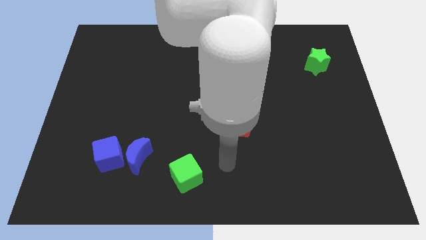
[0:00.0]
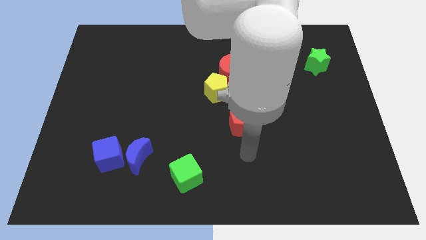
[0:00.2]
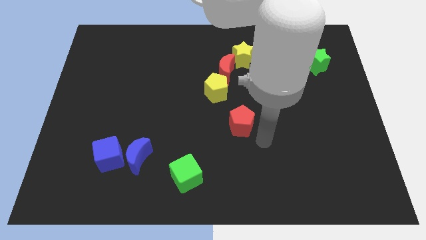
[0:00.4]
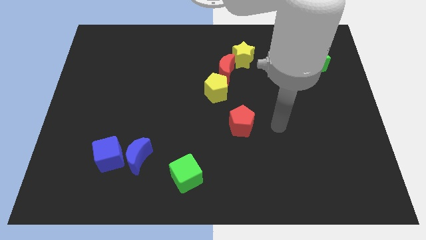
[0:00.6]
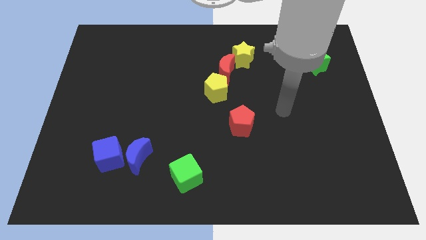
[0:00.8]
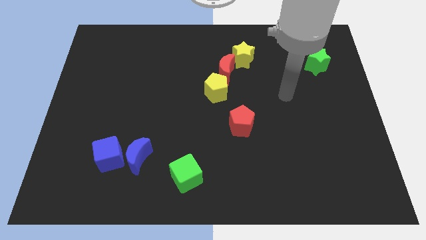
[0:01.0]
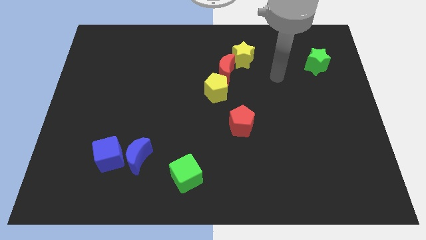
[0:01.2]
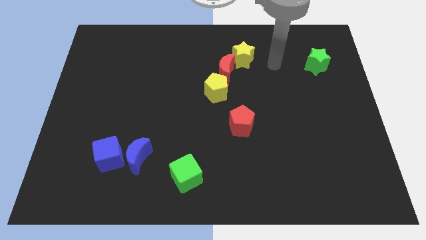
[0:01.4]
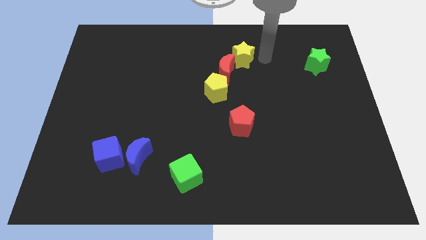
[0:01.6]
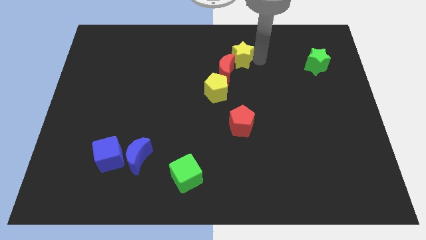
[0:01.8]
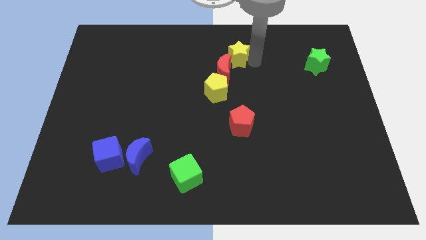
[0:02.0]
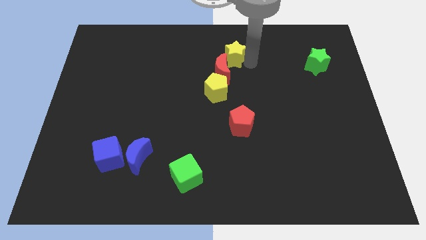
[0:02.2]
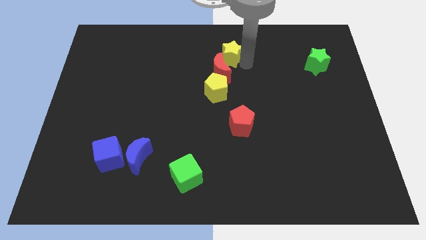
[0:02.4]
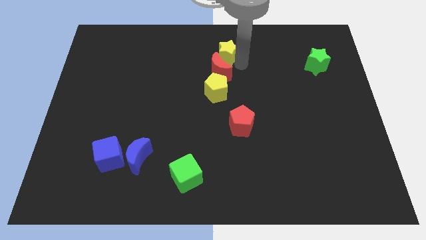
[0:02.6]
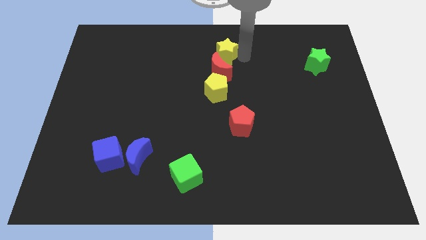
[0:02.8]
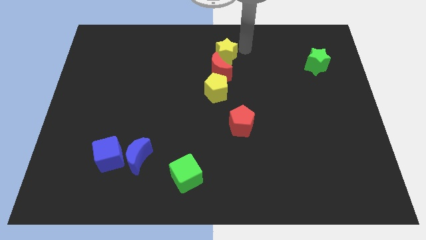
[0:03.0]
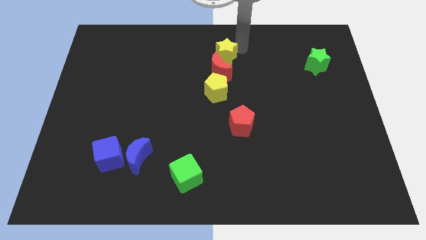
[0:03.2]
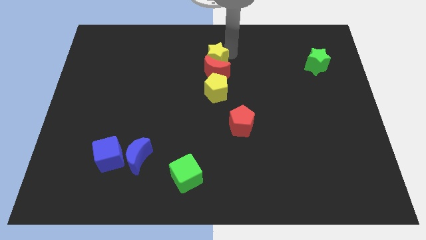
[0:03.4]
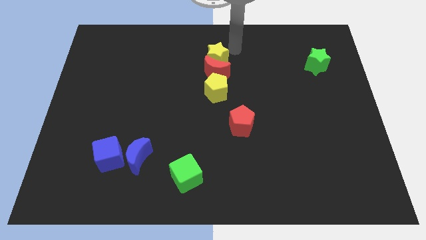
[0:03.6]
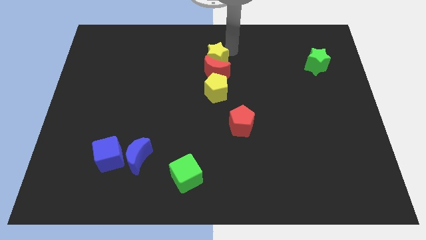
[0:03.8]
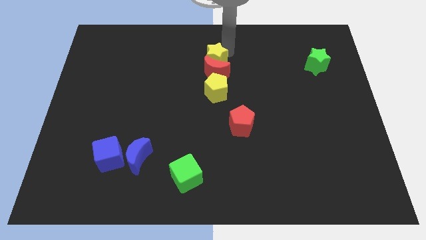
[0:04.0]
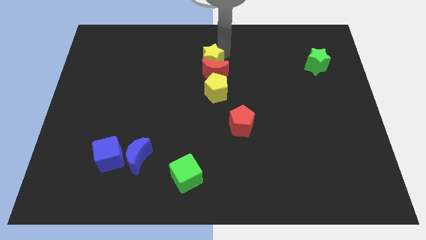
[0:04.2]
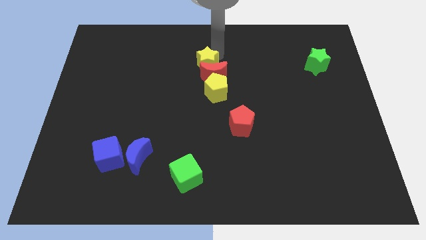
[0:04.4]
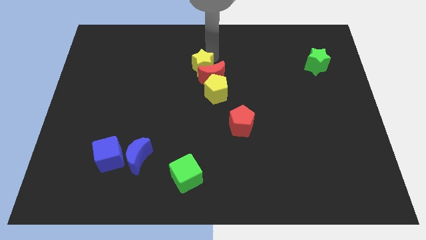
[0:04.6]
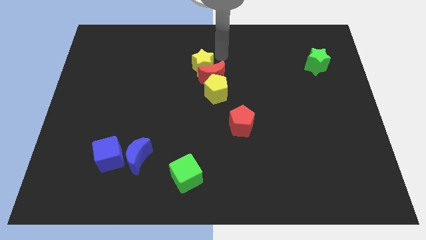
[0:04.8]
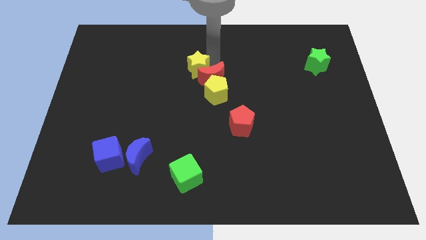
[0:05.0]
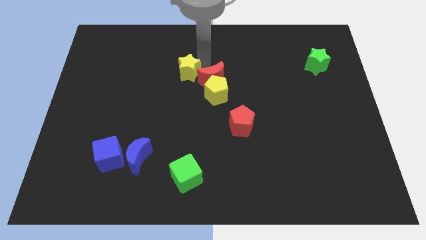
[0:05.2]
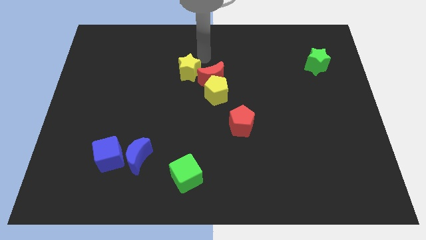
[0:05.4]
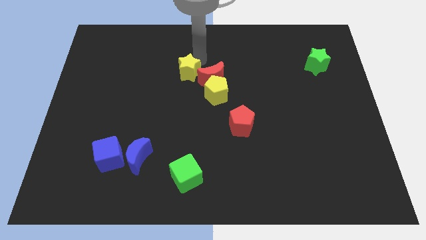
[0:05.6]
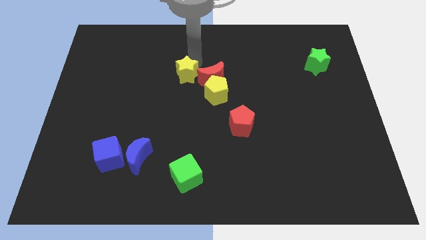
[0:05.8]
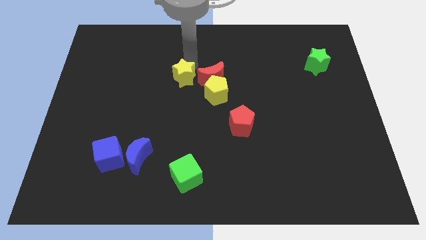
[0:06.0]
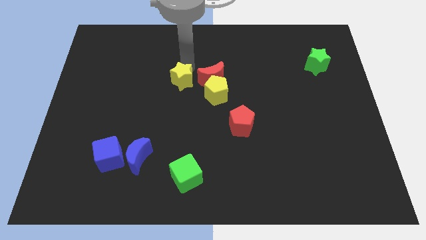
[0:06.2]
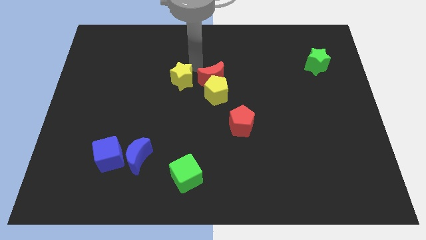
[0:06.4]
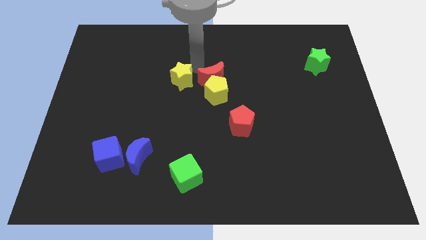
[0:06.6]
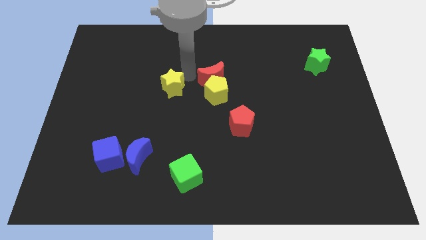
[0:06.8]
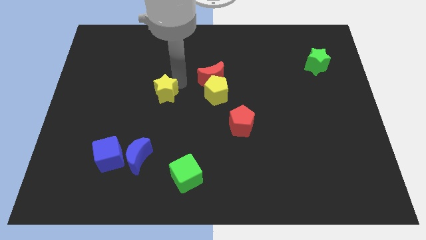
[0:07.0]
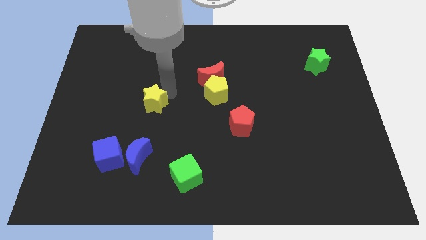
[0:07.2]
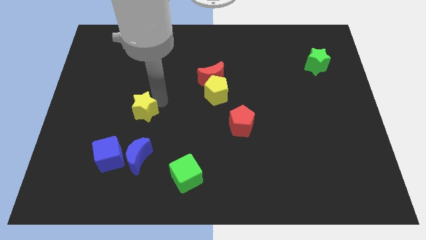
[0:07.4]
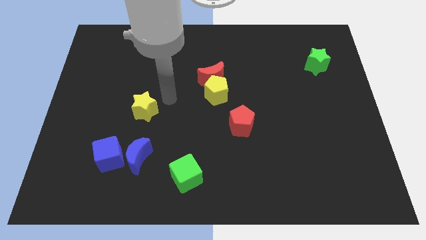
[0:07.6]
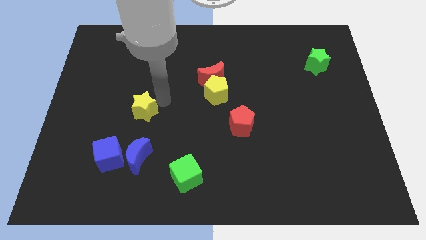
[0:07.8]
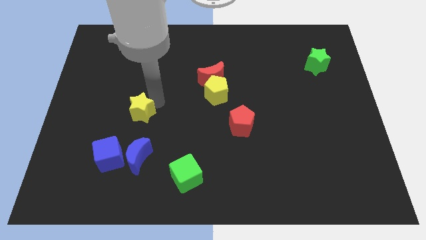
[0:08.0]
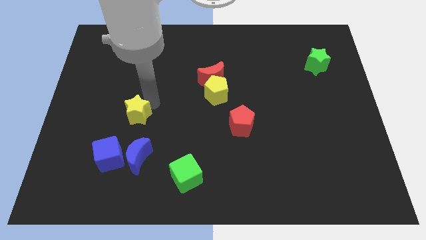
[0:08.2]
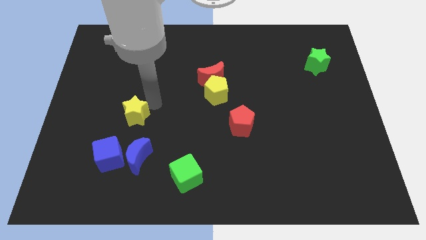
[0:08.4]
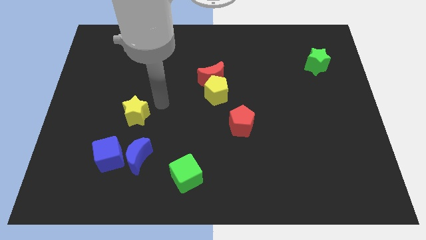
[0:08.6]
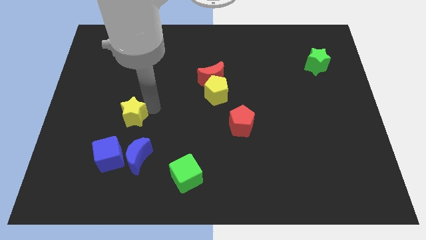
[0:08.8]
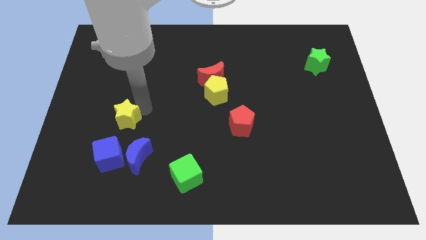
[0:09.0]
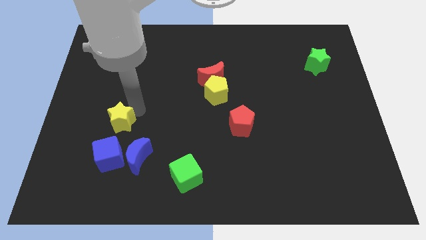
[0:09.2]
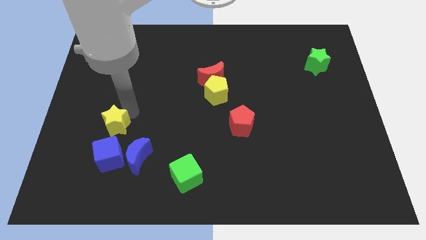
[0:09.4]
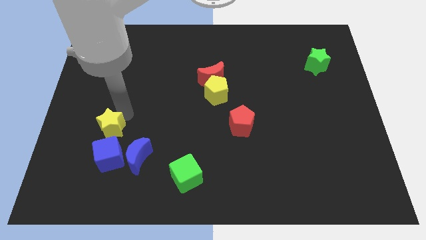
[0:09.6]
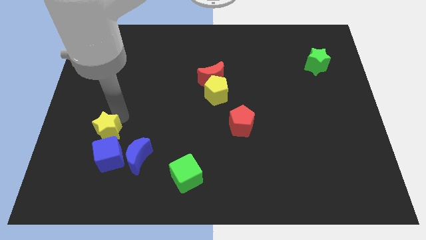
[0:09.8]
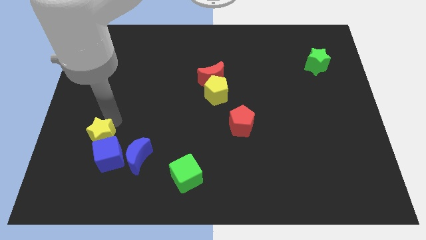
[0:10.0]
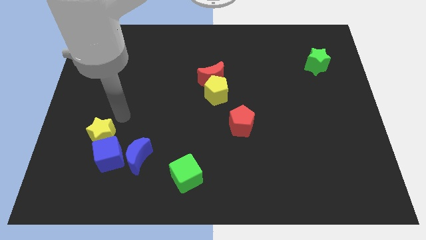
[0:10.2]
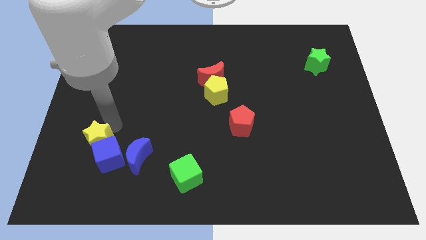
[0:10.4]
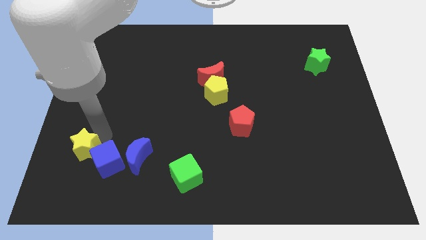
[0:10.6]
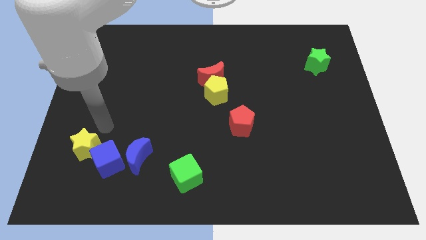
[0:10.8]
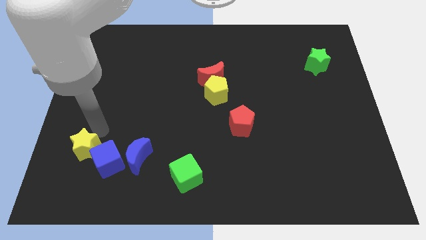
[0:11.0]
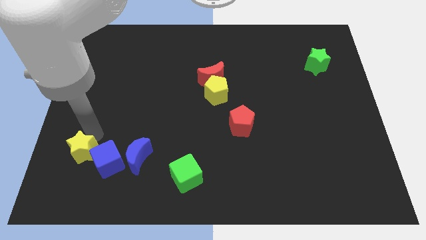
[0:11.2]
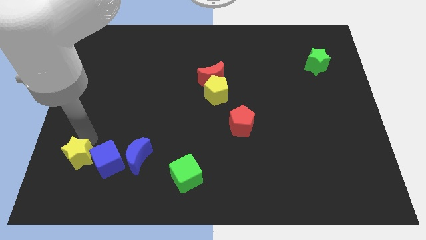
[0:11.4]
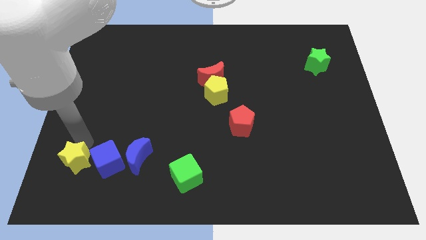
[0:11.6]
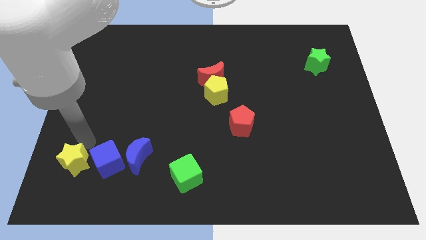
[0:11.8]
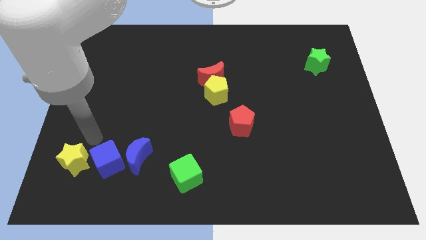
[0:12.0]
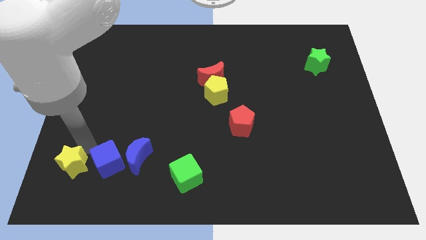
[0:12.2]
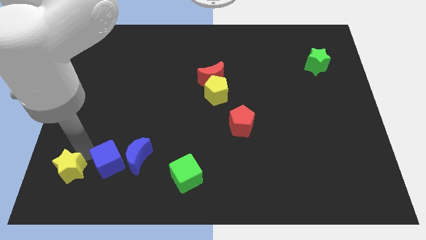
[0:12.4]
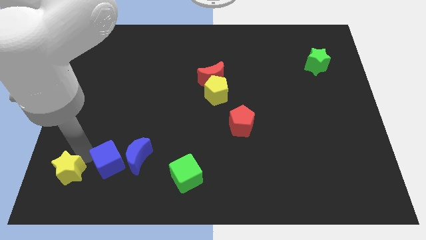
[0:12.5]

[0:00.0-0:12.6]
slide the yellow star to the lower left corner
